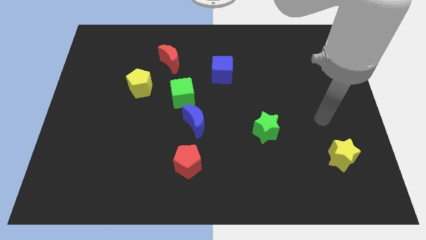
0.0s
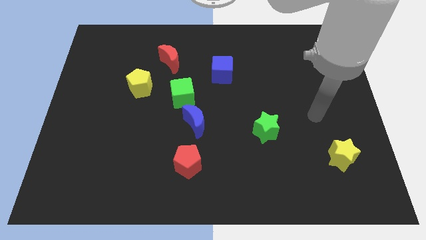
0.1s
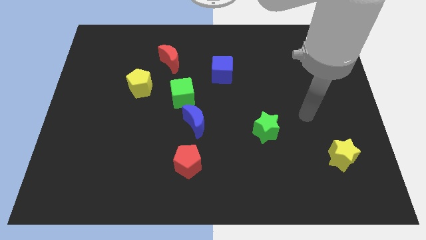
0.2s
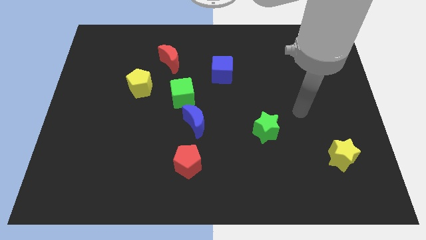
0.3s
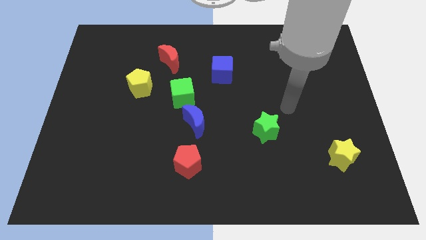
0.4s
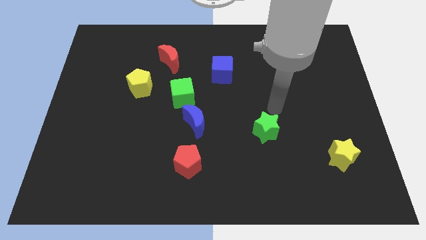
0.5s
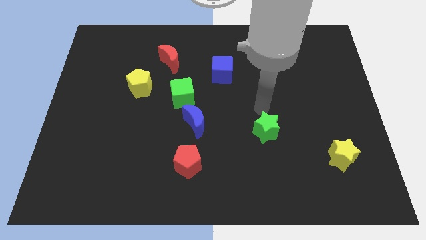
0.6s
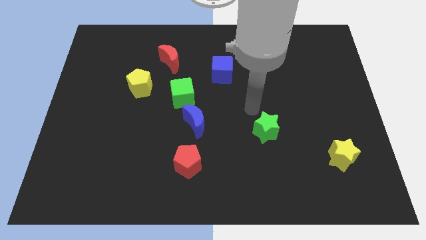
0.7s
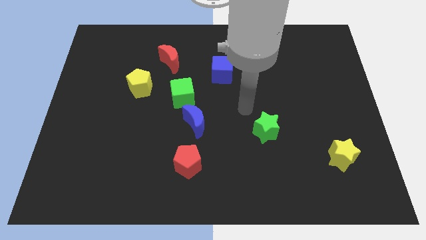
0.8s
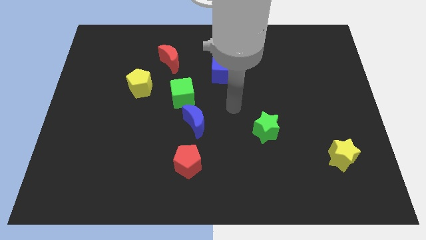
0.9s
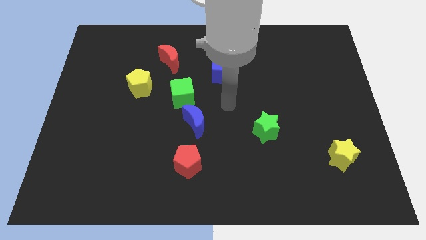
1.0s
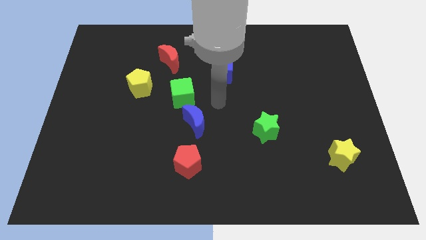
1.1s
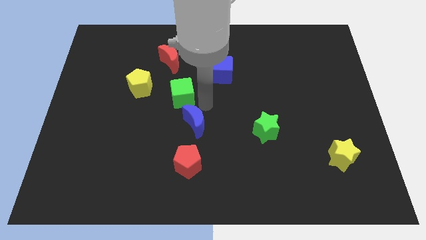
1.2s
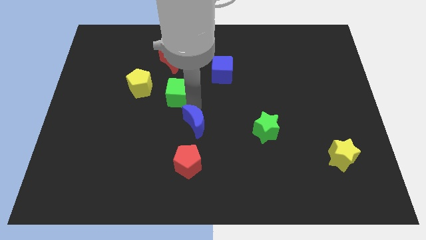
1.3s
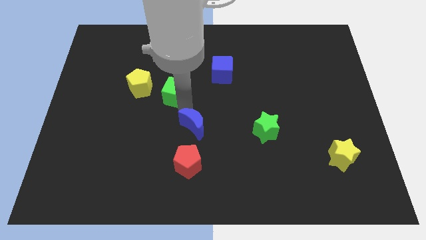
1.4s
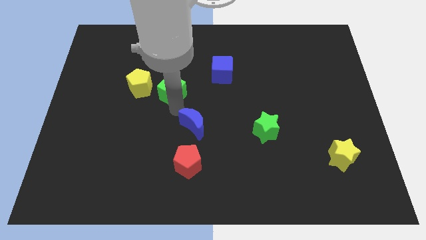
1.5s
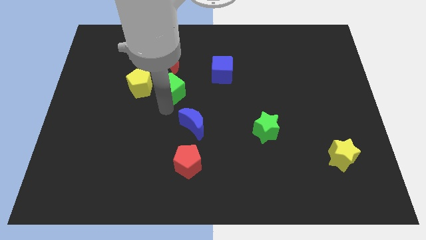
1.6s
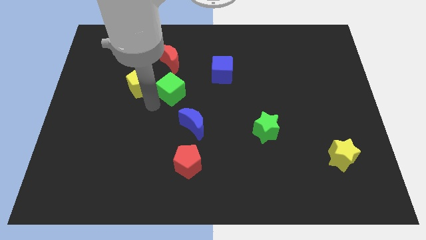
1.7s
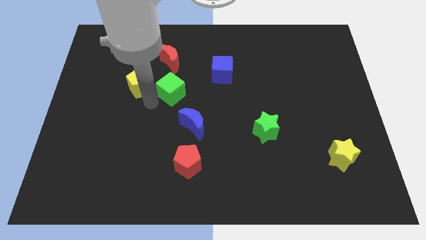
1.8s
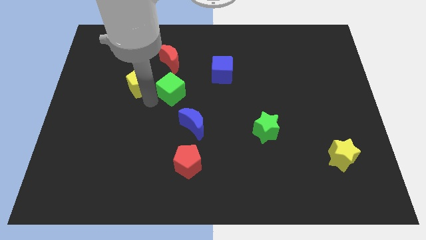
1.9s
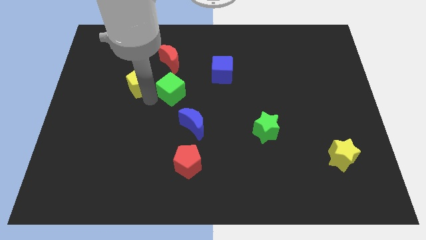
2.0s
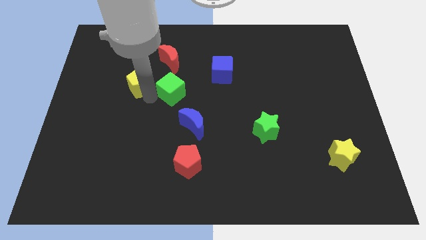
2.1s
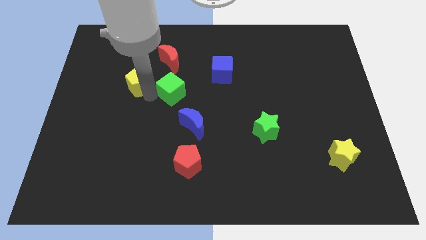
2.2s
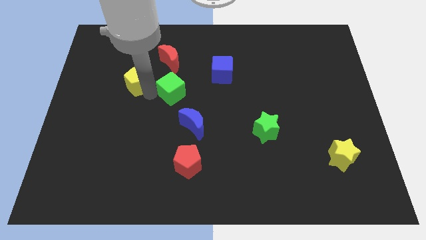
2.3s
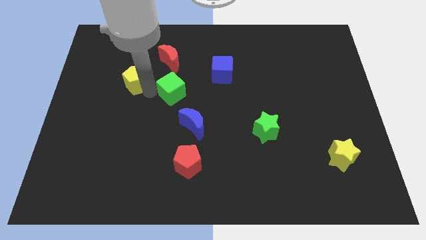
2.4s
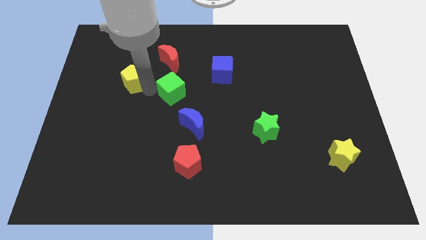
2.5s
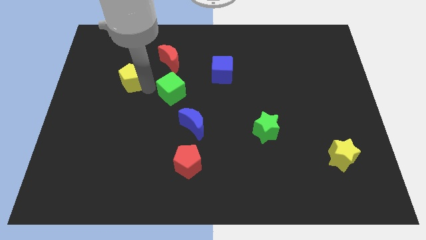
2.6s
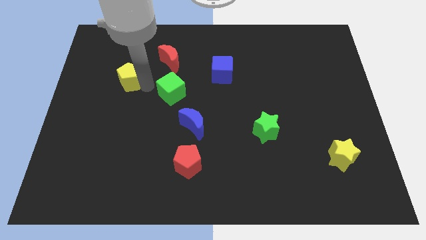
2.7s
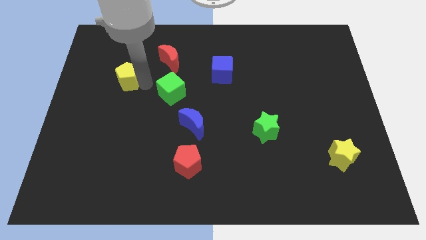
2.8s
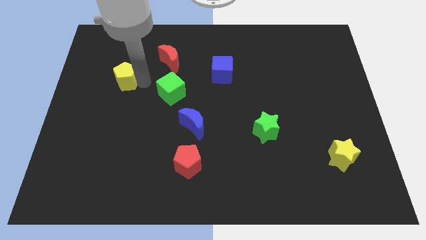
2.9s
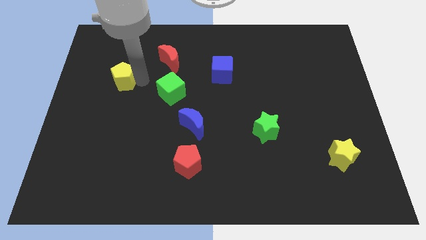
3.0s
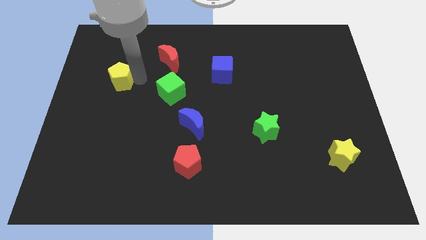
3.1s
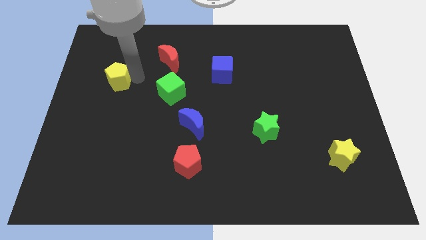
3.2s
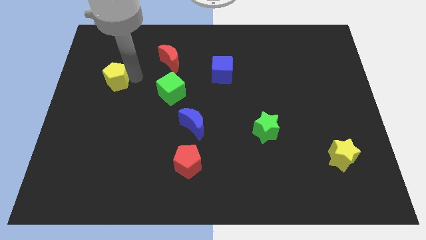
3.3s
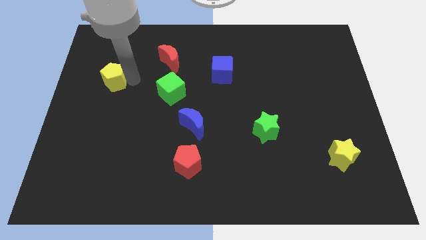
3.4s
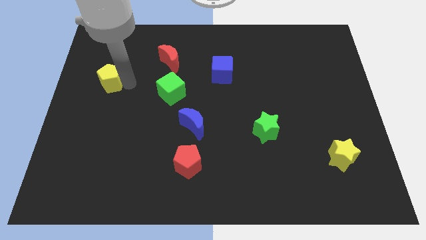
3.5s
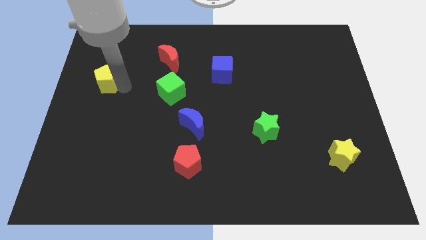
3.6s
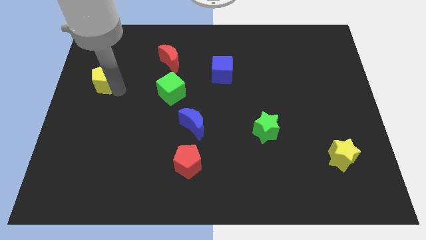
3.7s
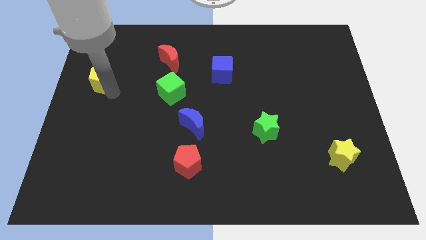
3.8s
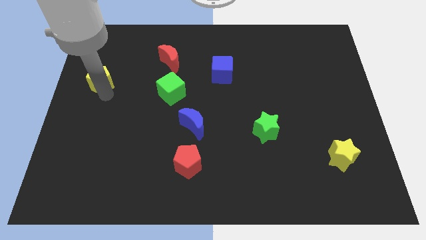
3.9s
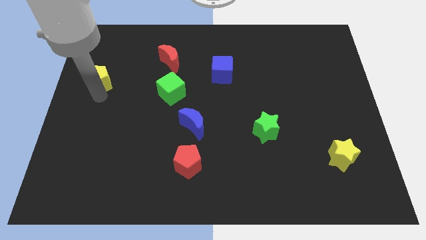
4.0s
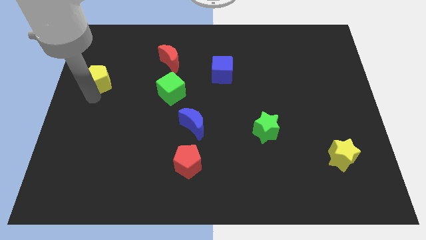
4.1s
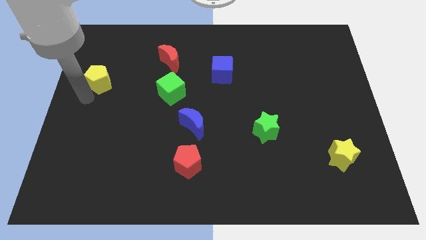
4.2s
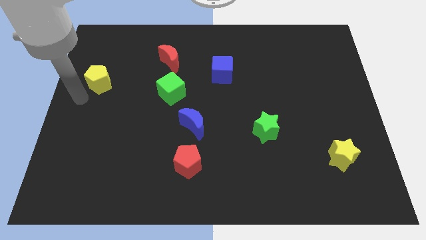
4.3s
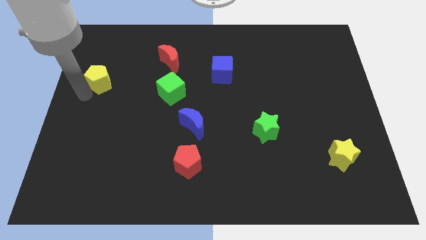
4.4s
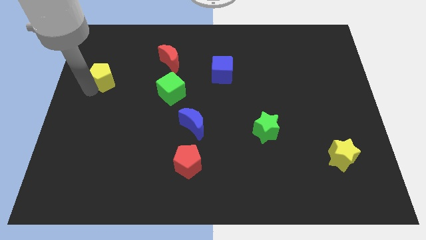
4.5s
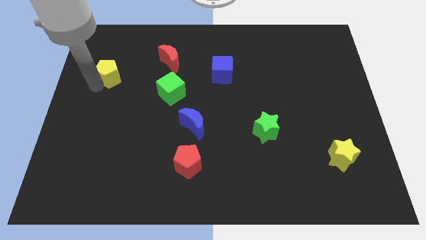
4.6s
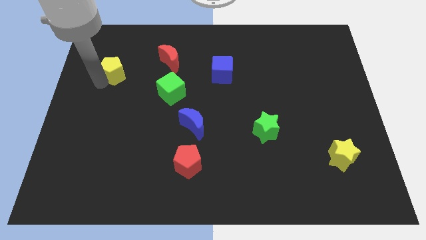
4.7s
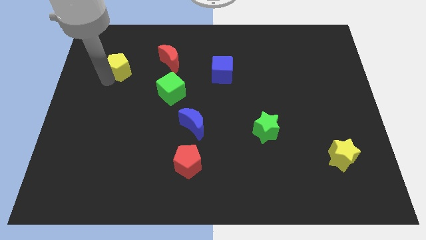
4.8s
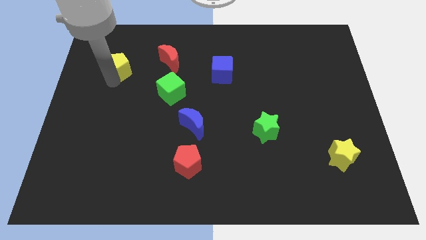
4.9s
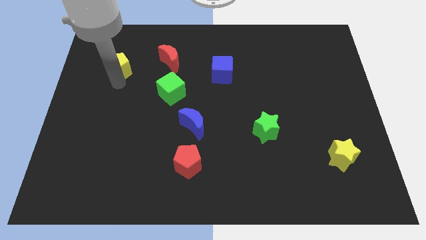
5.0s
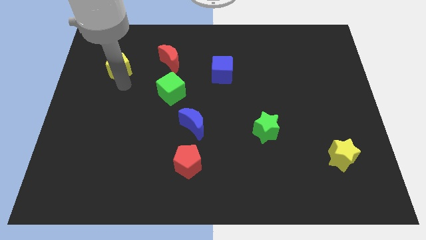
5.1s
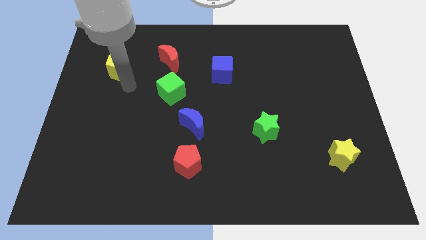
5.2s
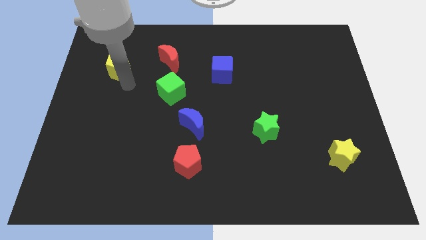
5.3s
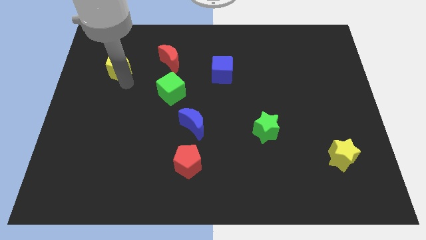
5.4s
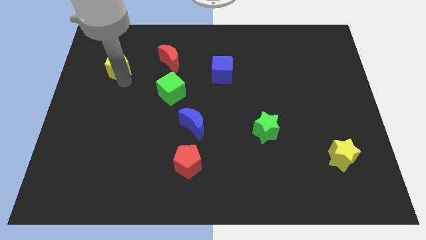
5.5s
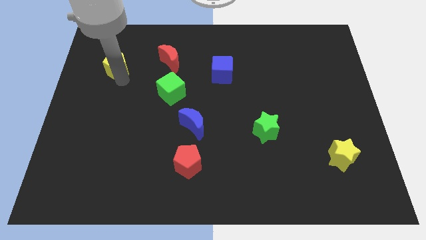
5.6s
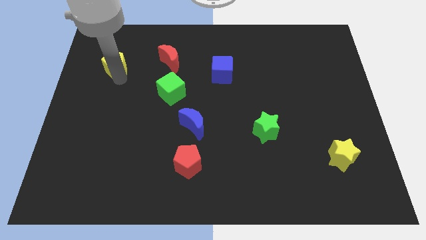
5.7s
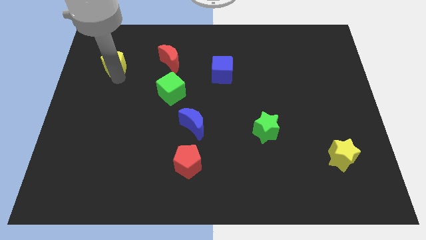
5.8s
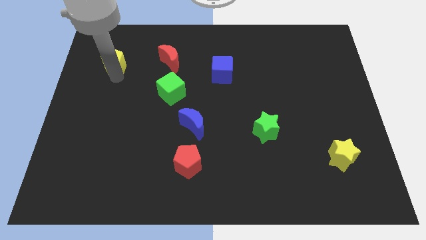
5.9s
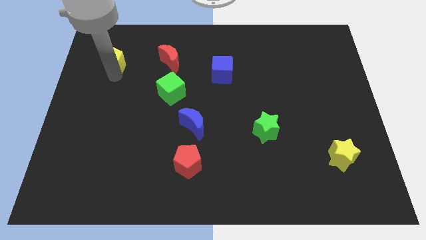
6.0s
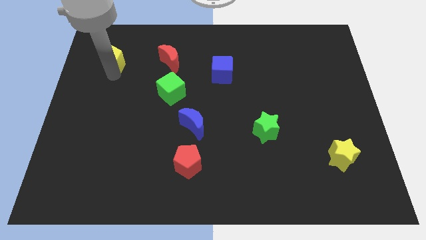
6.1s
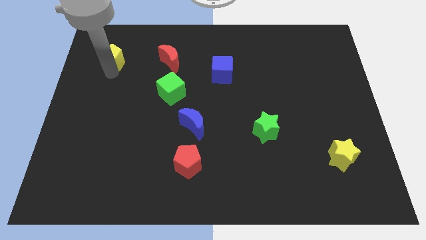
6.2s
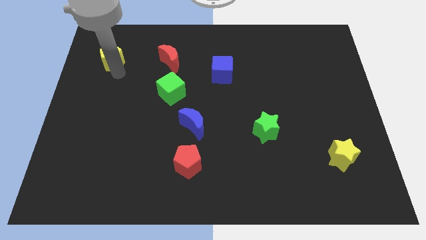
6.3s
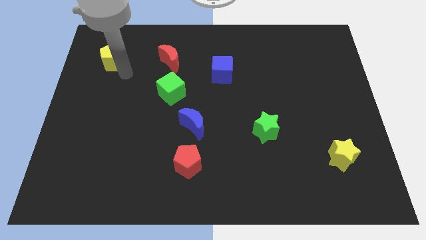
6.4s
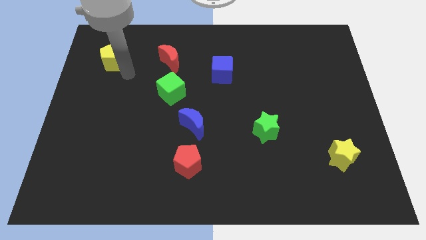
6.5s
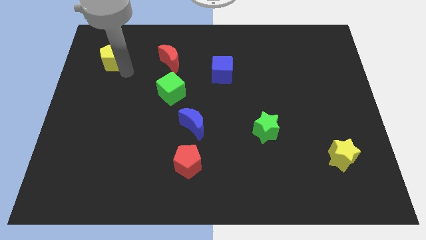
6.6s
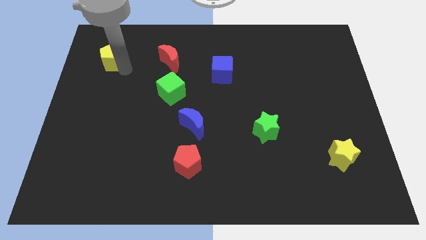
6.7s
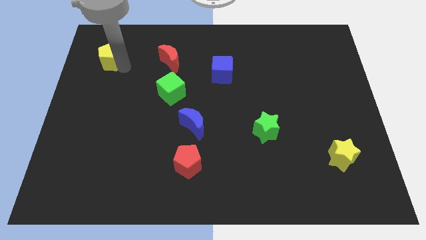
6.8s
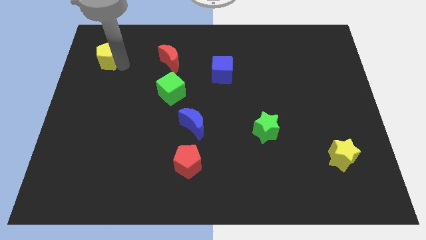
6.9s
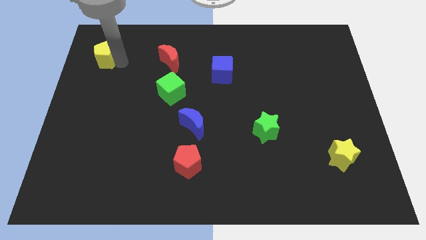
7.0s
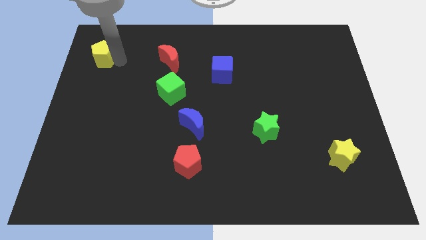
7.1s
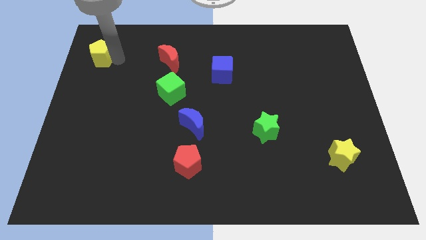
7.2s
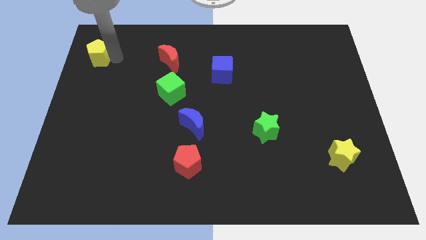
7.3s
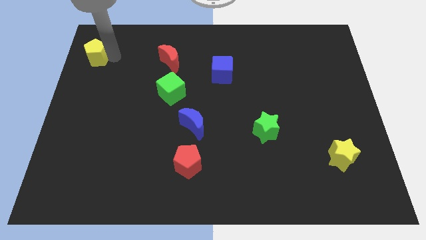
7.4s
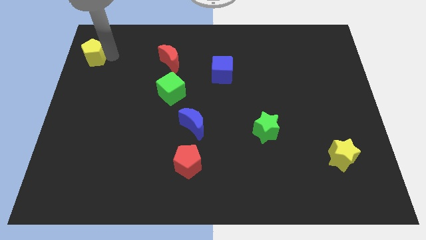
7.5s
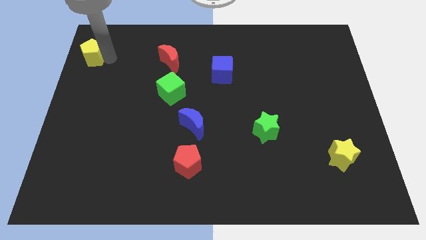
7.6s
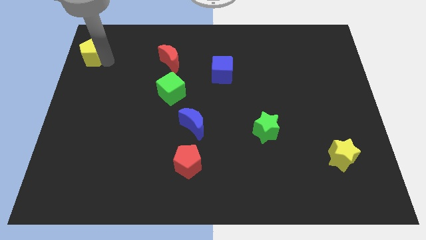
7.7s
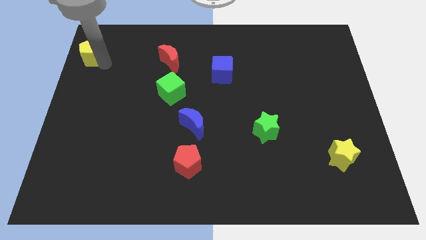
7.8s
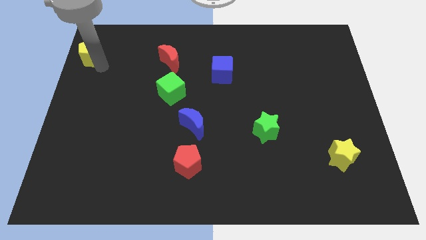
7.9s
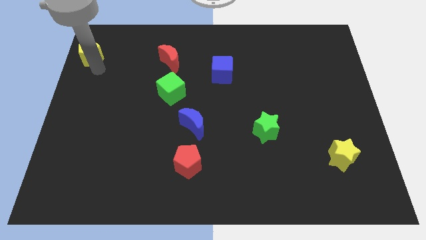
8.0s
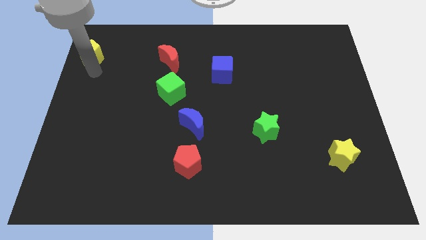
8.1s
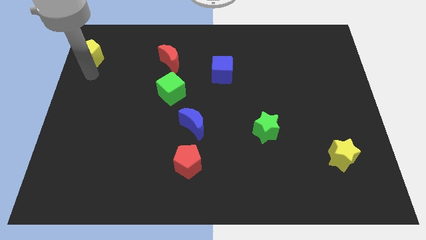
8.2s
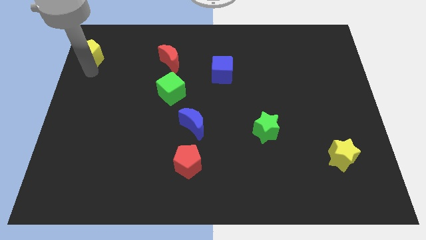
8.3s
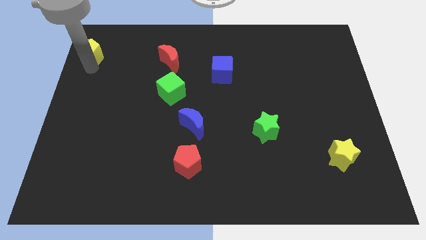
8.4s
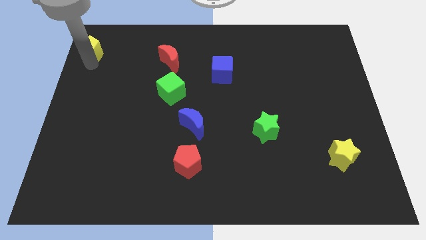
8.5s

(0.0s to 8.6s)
slide the yellow pentagon to the top left of the board
